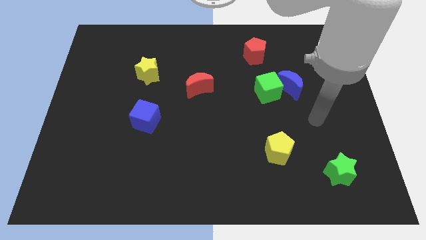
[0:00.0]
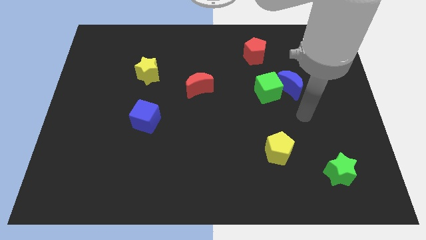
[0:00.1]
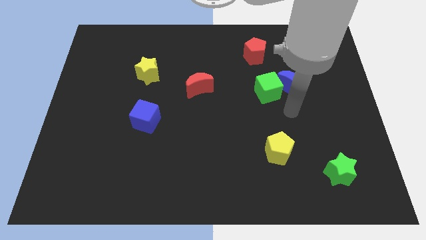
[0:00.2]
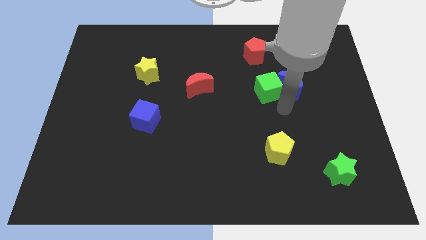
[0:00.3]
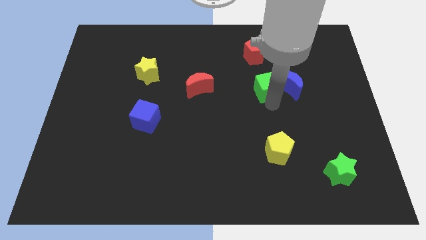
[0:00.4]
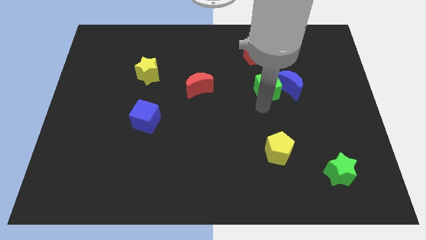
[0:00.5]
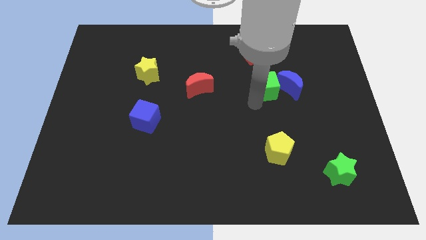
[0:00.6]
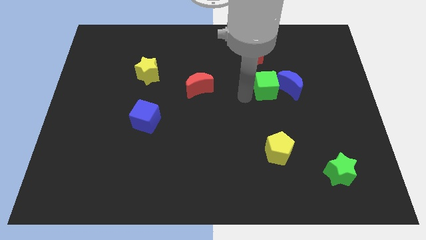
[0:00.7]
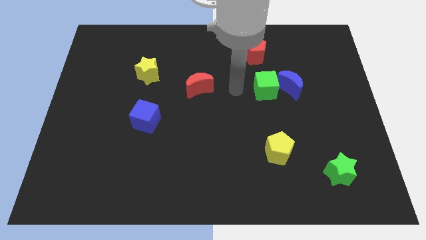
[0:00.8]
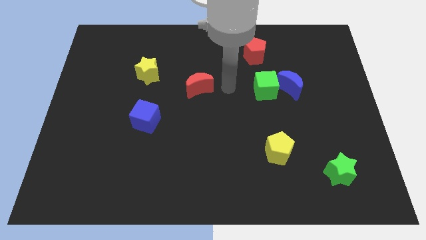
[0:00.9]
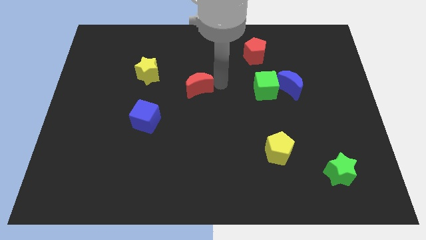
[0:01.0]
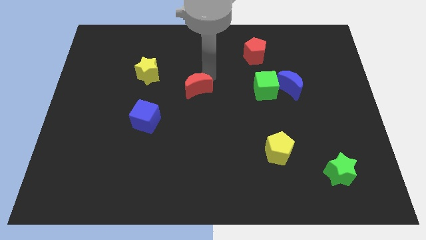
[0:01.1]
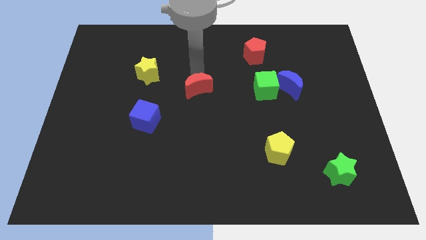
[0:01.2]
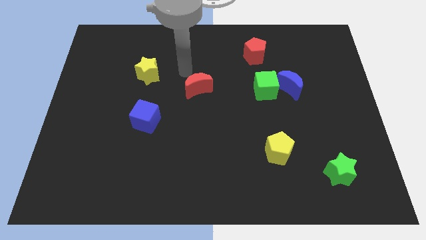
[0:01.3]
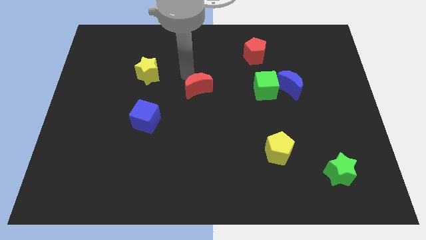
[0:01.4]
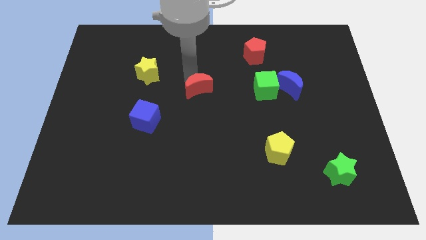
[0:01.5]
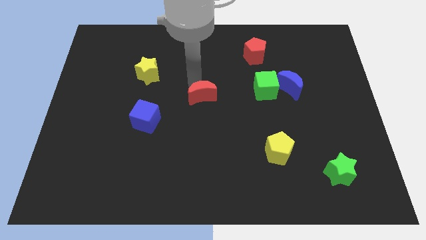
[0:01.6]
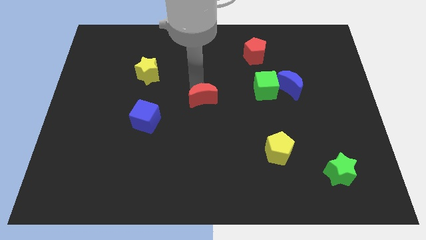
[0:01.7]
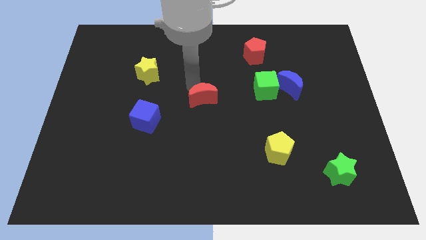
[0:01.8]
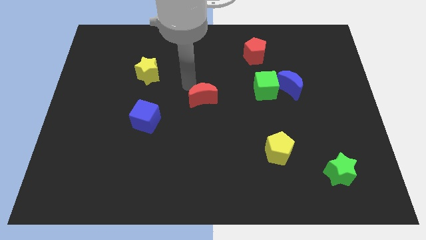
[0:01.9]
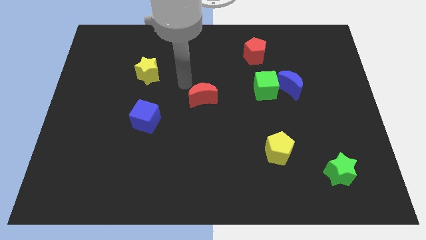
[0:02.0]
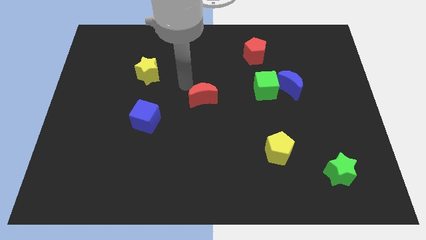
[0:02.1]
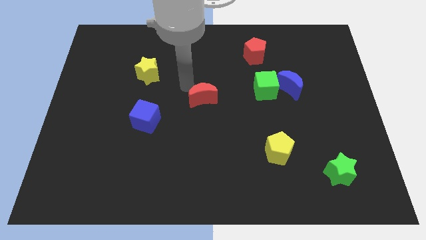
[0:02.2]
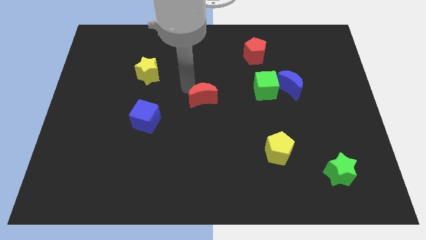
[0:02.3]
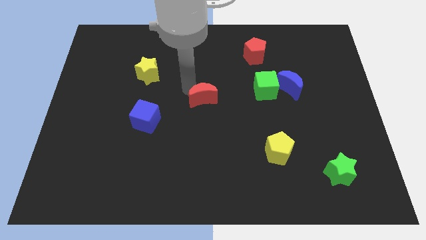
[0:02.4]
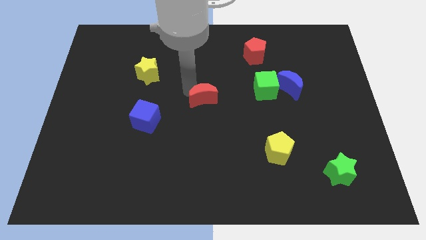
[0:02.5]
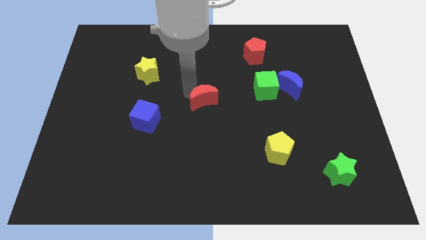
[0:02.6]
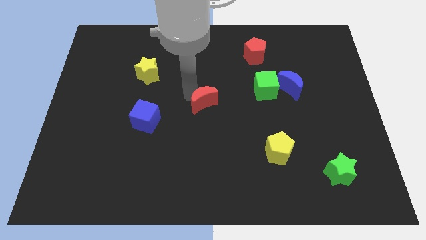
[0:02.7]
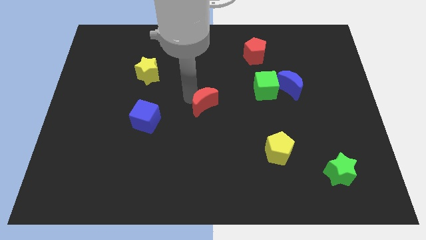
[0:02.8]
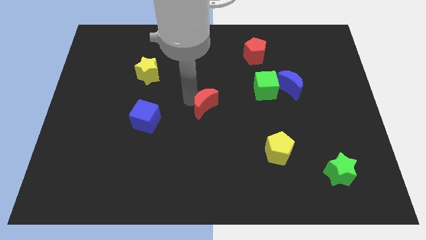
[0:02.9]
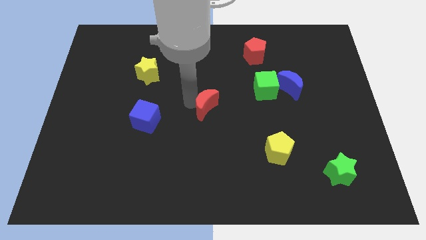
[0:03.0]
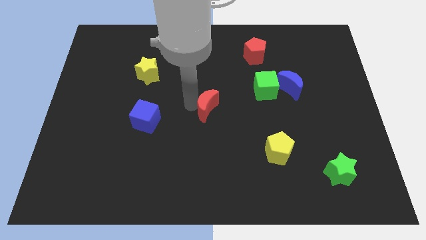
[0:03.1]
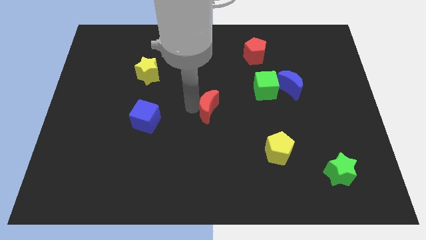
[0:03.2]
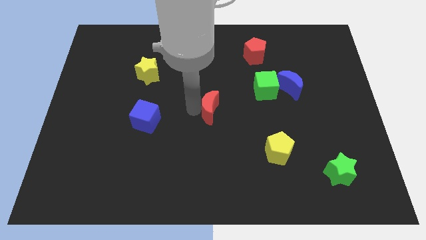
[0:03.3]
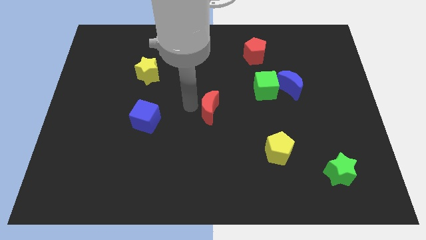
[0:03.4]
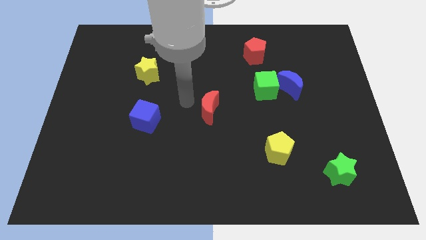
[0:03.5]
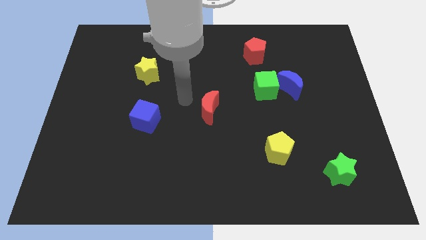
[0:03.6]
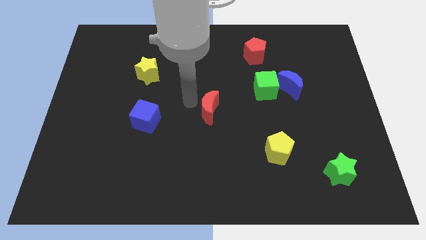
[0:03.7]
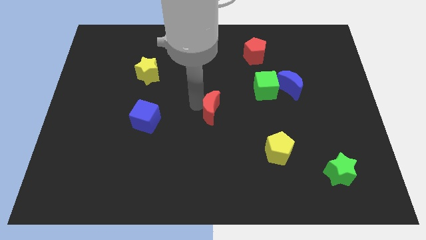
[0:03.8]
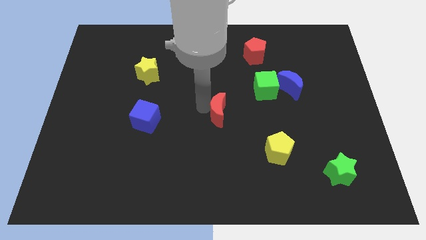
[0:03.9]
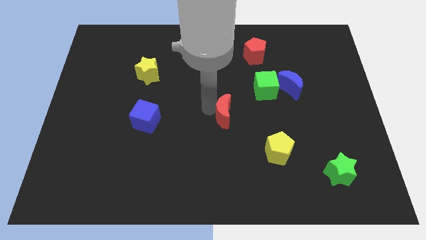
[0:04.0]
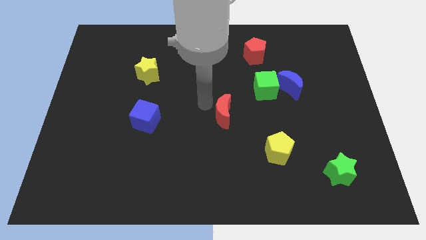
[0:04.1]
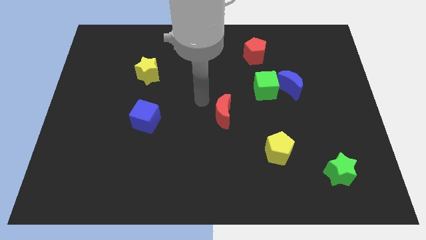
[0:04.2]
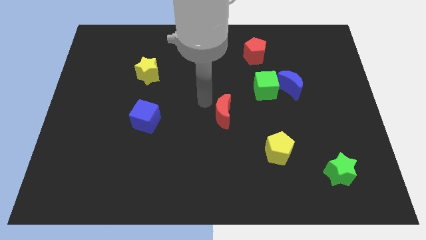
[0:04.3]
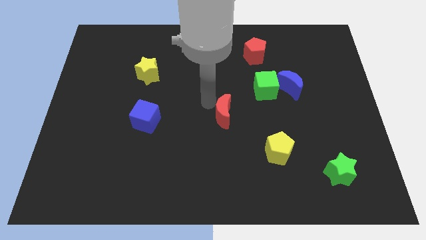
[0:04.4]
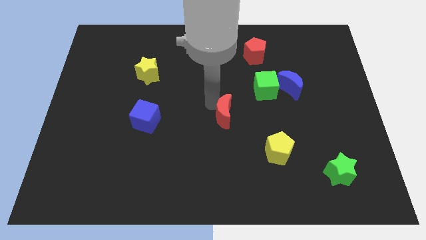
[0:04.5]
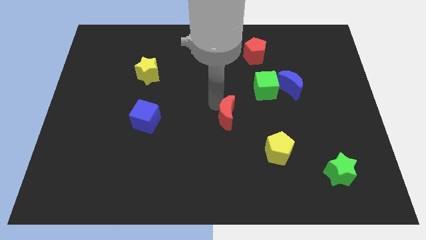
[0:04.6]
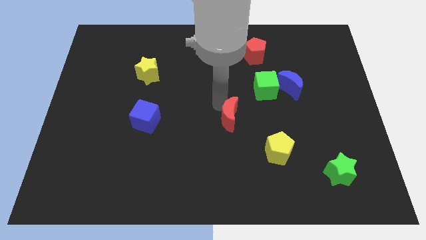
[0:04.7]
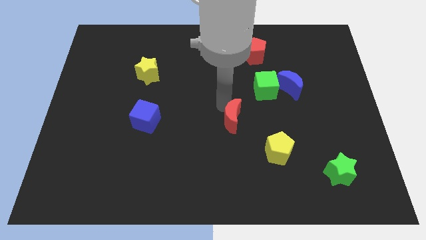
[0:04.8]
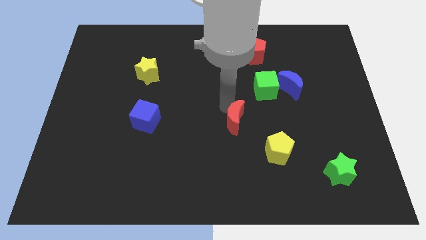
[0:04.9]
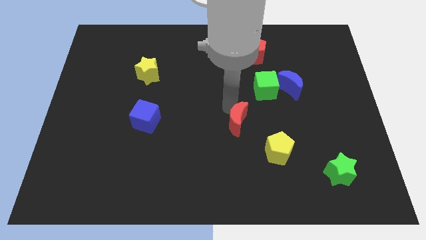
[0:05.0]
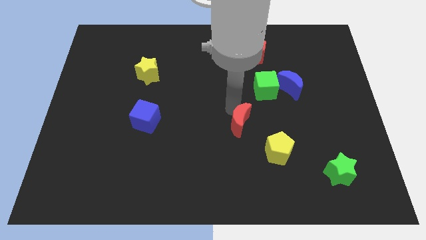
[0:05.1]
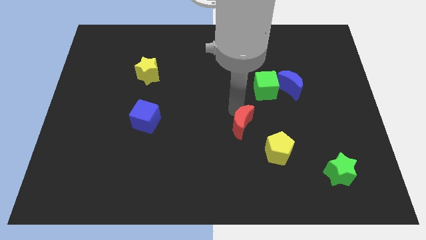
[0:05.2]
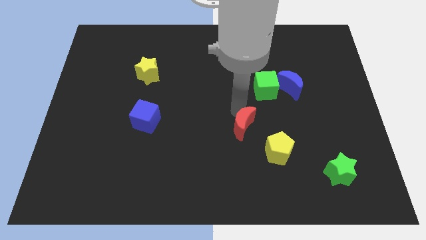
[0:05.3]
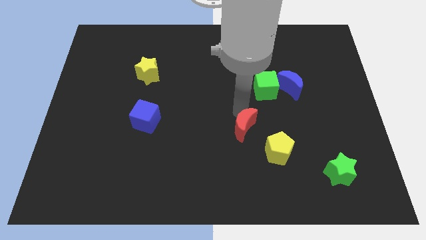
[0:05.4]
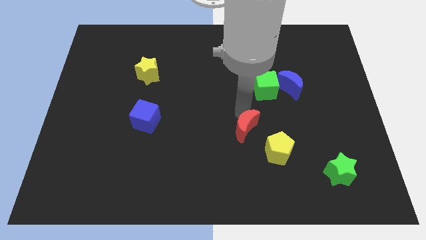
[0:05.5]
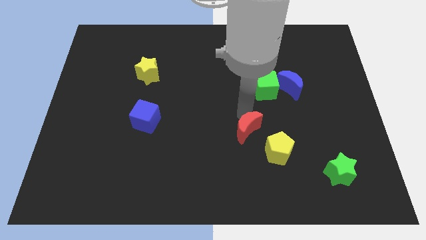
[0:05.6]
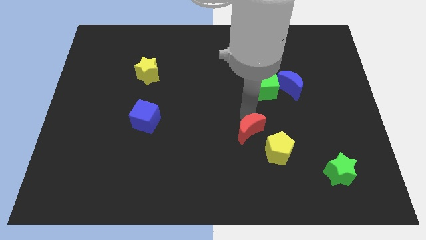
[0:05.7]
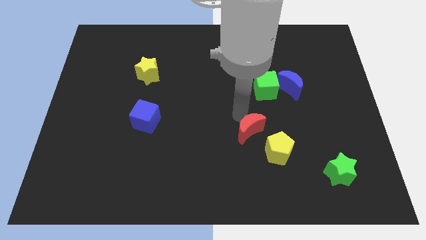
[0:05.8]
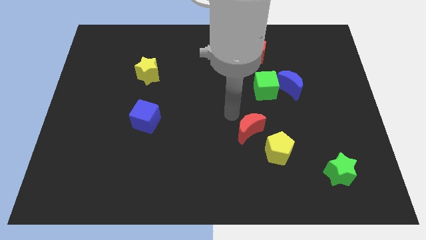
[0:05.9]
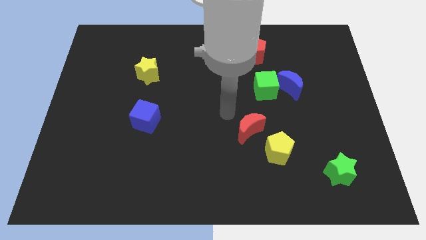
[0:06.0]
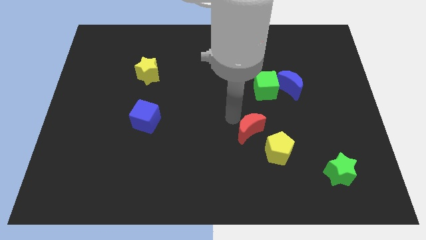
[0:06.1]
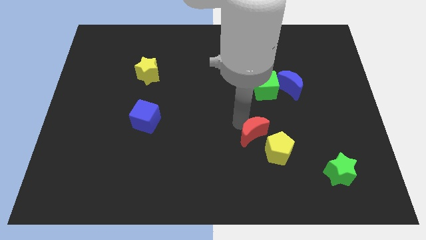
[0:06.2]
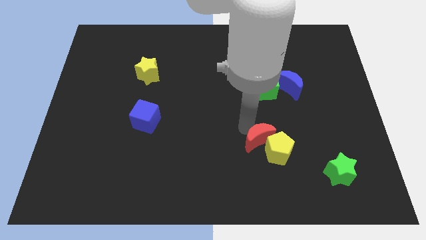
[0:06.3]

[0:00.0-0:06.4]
push the red moon to the yellow pentagon

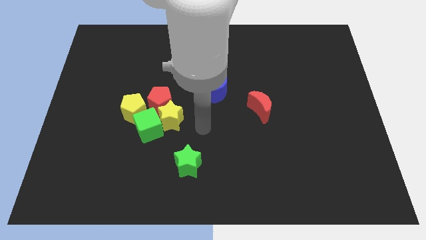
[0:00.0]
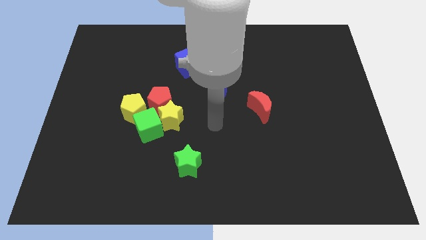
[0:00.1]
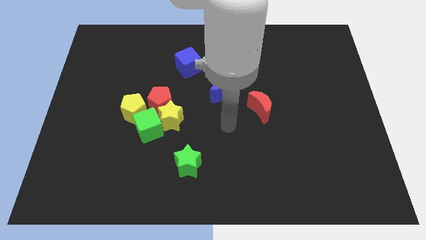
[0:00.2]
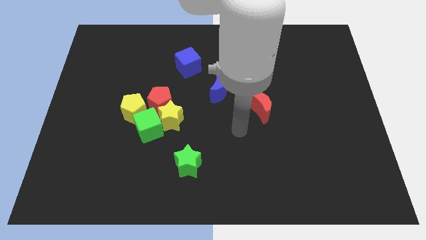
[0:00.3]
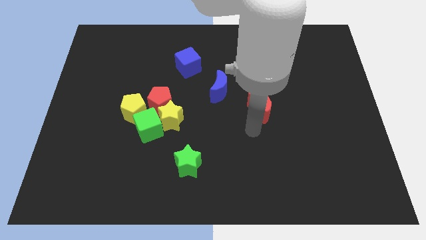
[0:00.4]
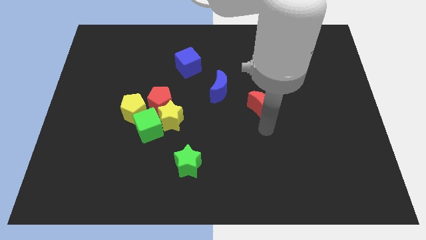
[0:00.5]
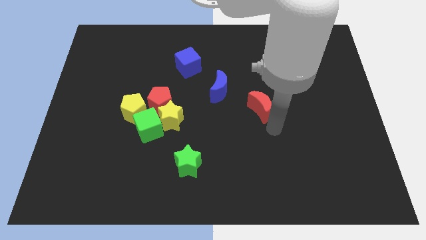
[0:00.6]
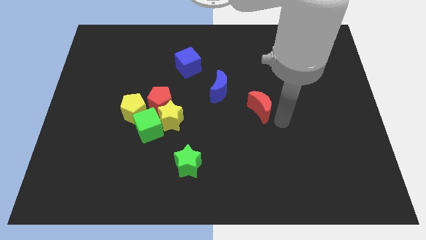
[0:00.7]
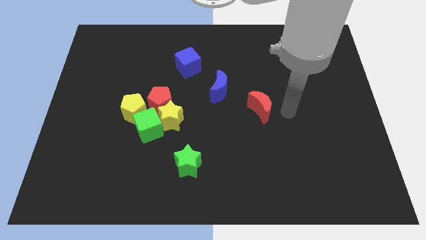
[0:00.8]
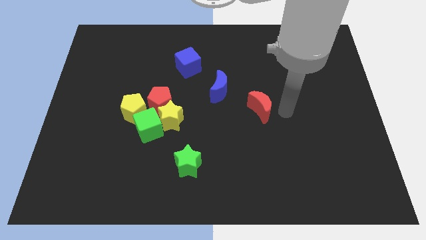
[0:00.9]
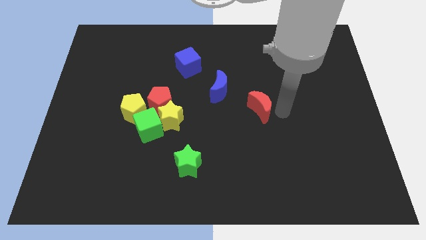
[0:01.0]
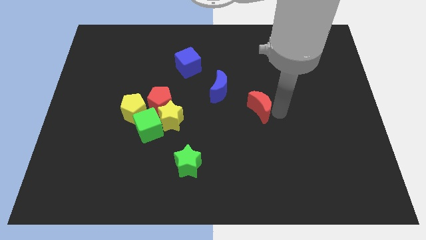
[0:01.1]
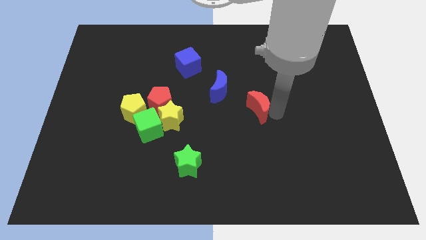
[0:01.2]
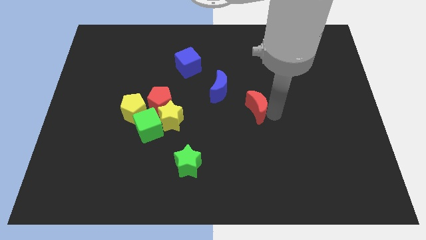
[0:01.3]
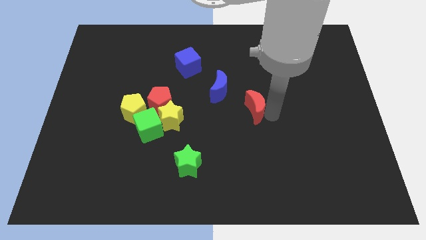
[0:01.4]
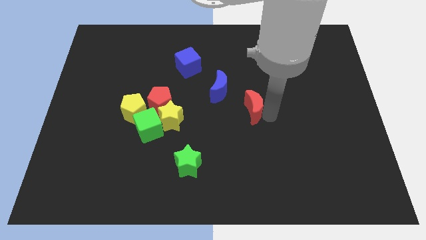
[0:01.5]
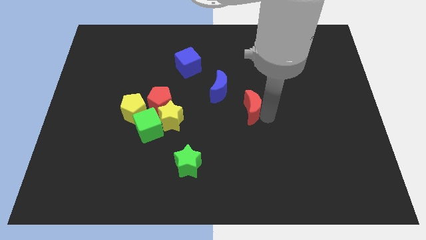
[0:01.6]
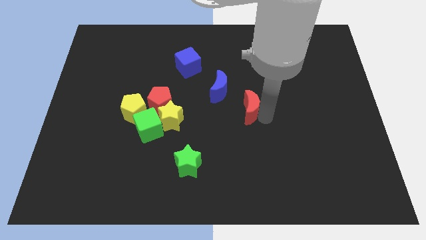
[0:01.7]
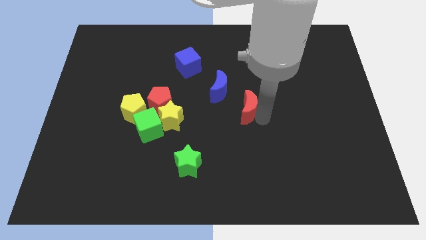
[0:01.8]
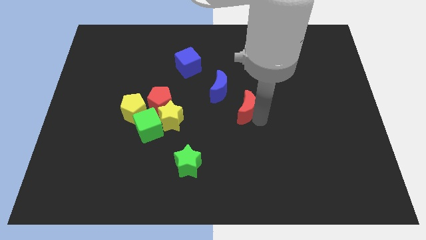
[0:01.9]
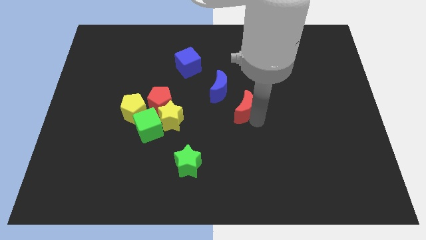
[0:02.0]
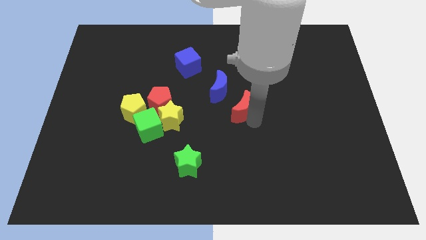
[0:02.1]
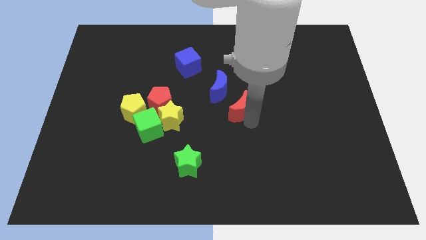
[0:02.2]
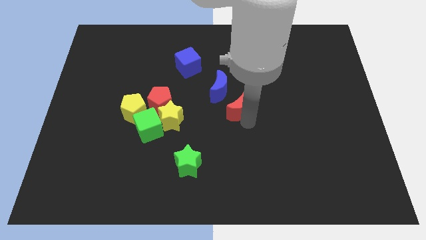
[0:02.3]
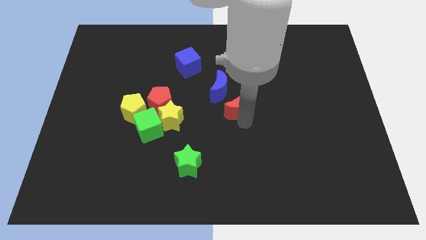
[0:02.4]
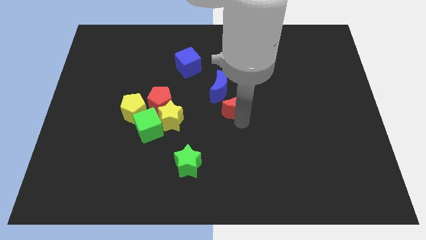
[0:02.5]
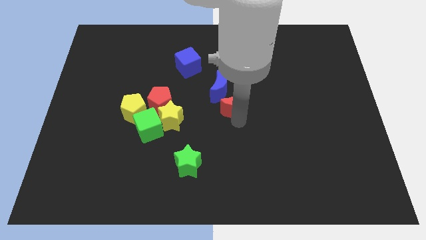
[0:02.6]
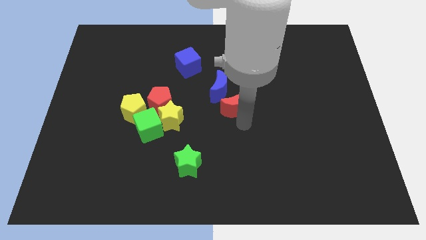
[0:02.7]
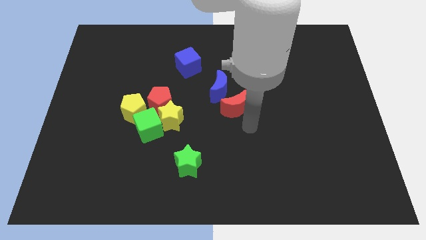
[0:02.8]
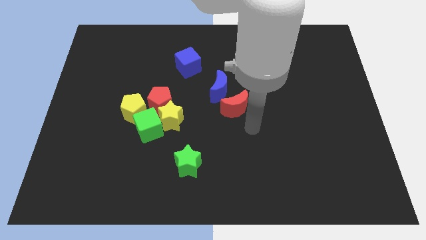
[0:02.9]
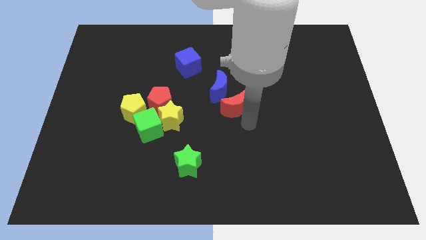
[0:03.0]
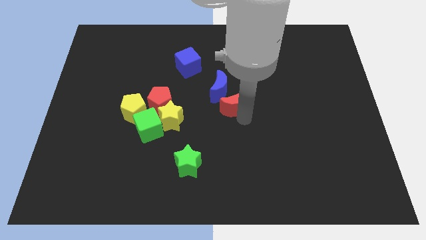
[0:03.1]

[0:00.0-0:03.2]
put the red moon to the blue moon
